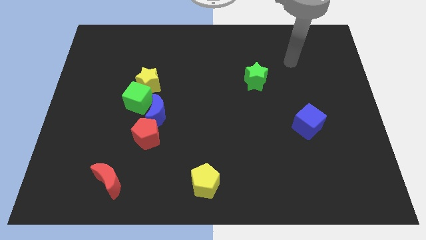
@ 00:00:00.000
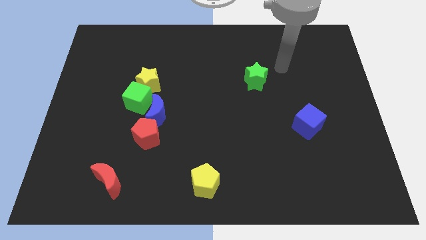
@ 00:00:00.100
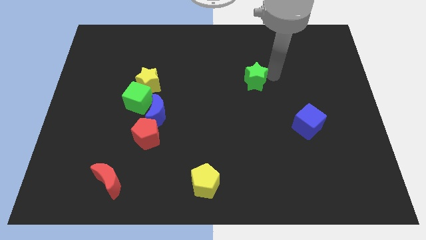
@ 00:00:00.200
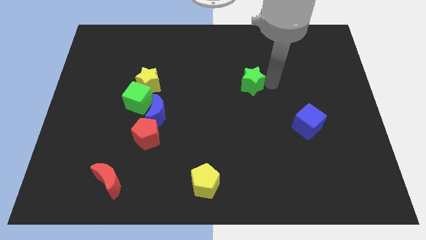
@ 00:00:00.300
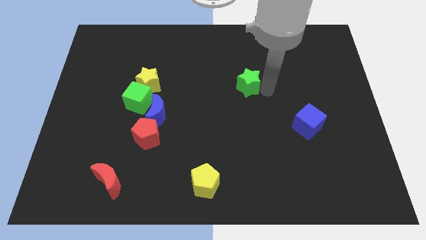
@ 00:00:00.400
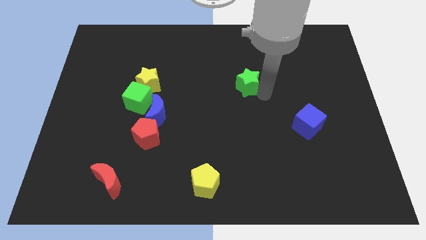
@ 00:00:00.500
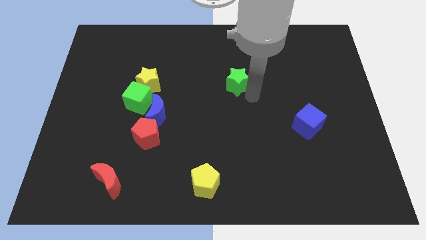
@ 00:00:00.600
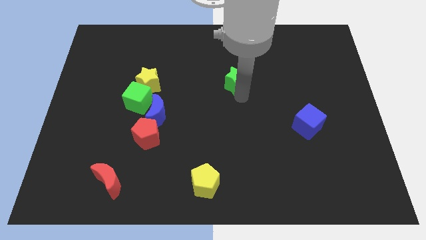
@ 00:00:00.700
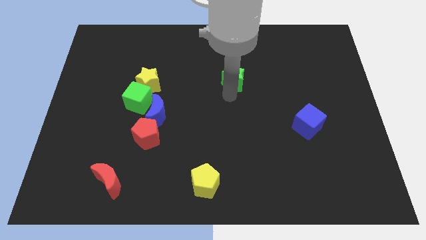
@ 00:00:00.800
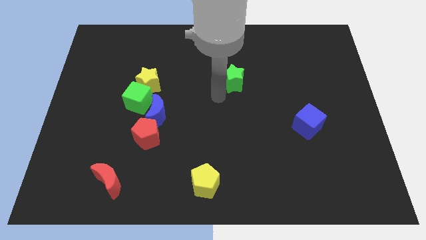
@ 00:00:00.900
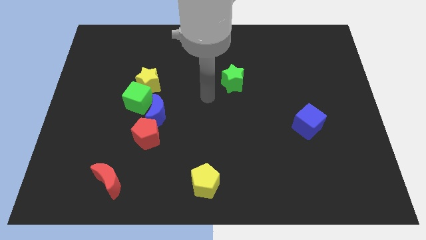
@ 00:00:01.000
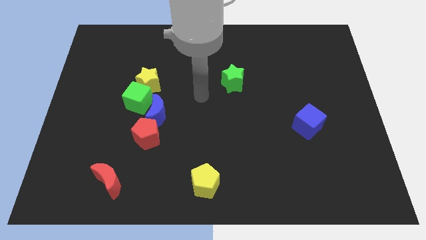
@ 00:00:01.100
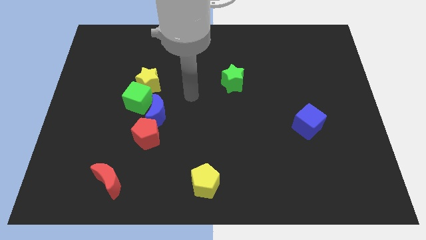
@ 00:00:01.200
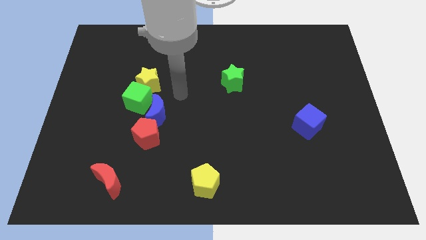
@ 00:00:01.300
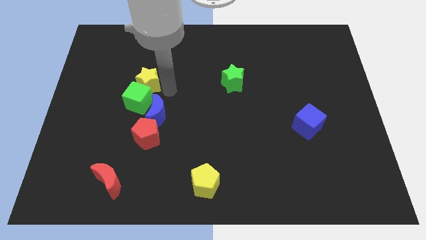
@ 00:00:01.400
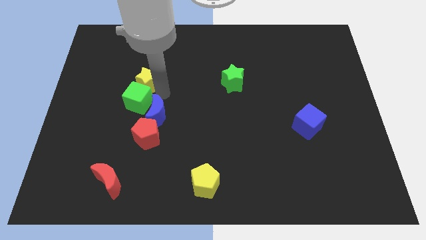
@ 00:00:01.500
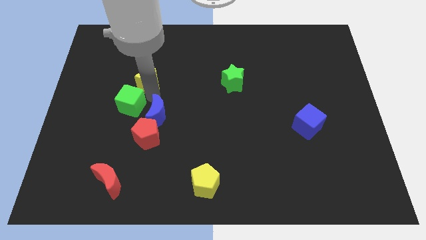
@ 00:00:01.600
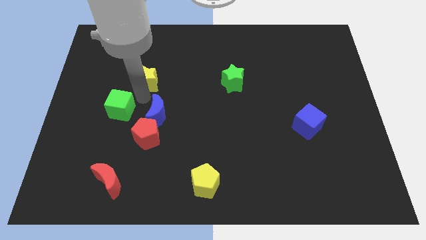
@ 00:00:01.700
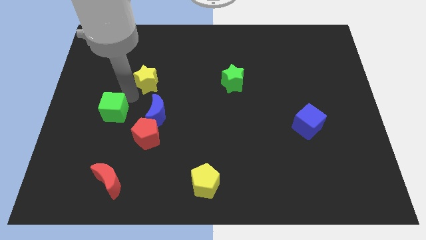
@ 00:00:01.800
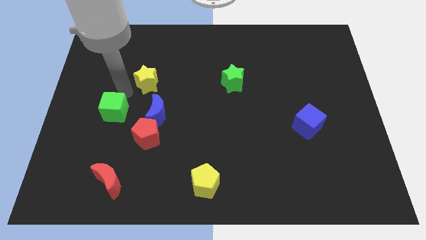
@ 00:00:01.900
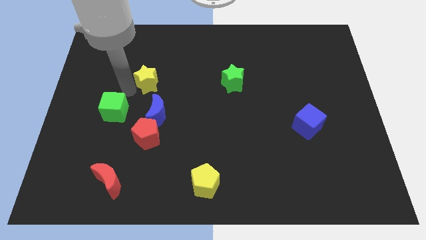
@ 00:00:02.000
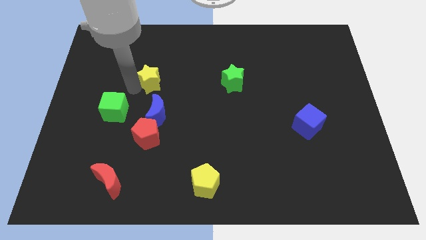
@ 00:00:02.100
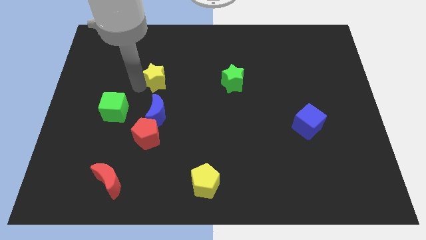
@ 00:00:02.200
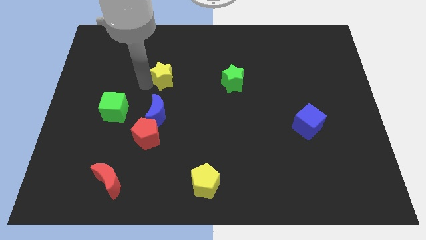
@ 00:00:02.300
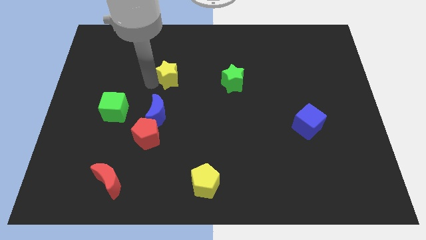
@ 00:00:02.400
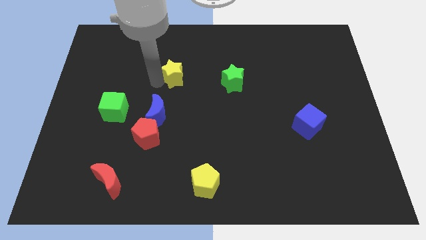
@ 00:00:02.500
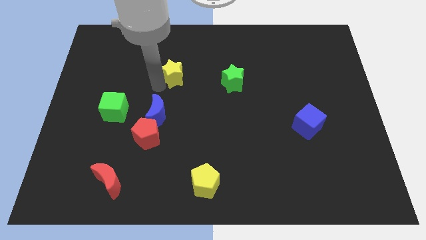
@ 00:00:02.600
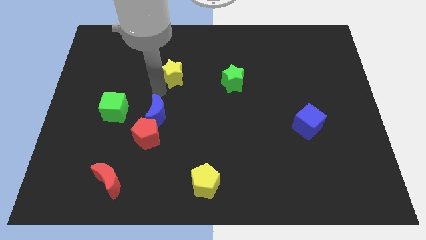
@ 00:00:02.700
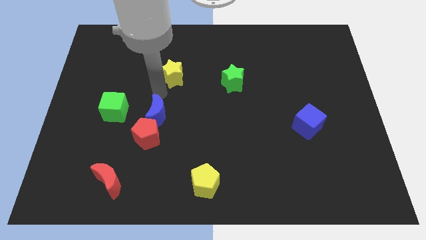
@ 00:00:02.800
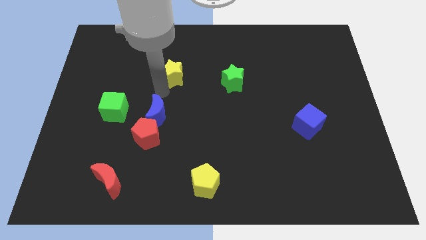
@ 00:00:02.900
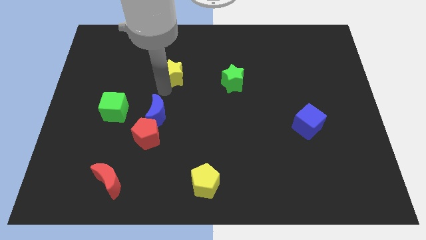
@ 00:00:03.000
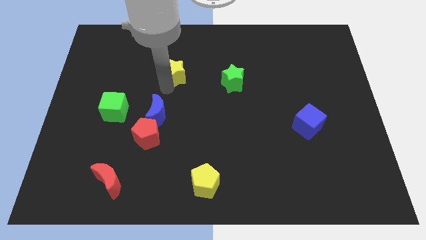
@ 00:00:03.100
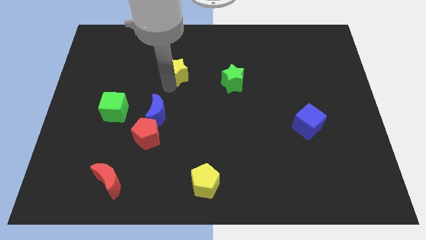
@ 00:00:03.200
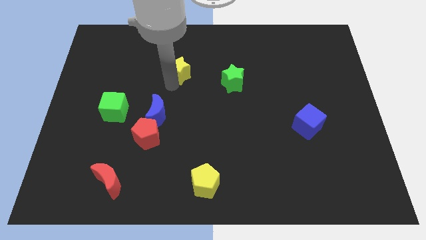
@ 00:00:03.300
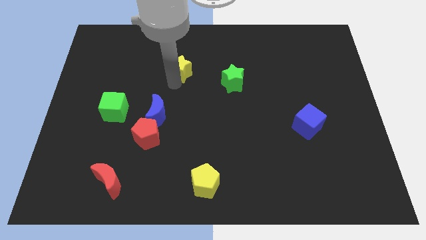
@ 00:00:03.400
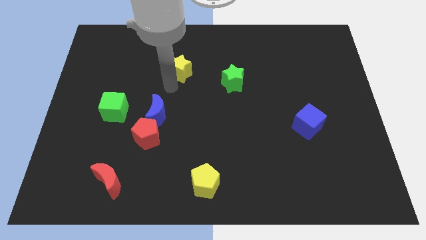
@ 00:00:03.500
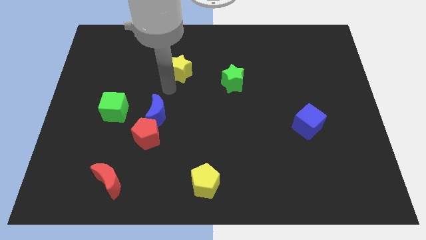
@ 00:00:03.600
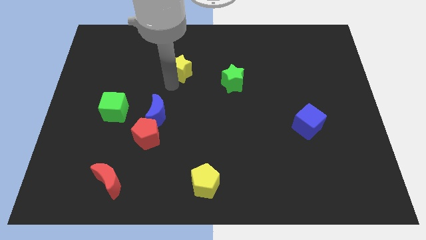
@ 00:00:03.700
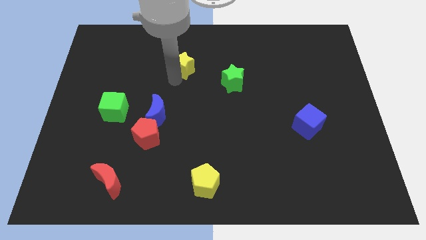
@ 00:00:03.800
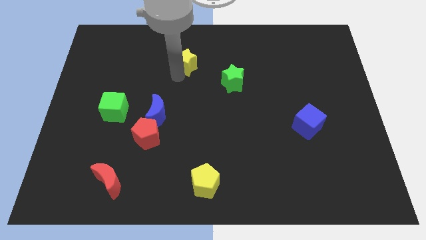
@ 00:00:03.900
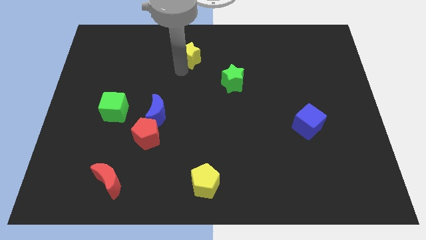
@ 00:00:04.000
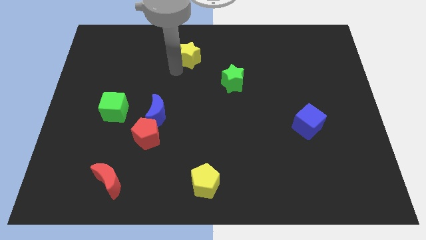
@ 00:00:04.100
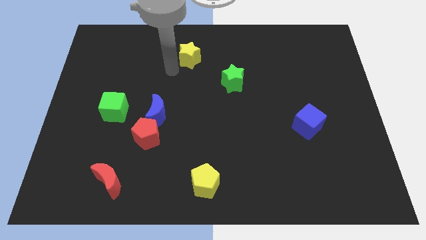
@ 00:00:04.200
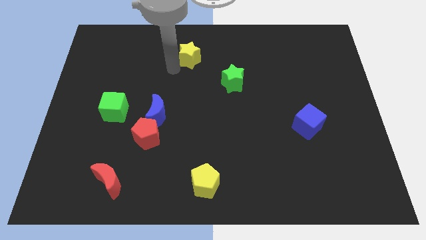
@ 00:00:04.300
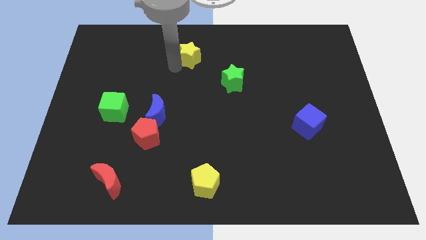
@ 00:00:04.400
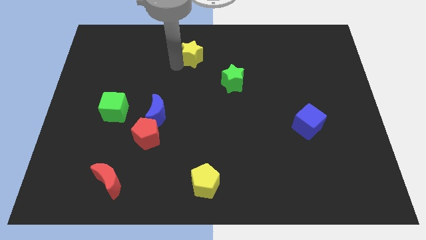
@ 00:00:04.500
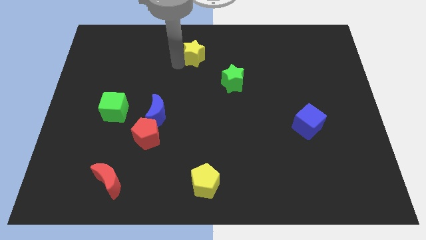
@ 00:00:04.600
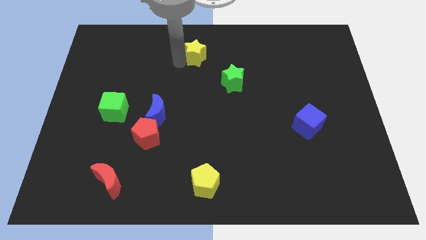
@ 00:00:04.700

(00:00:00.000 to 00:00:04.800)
put the yellow star to the top side

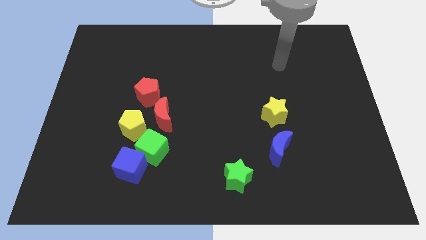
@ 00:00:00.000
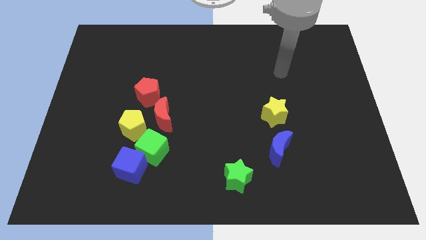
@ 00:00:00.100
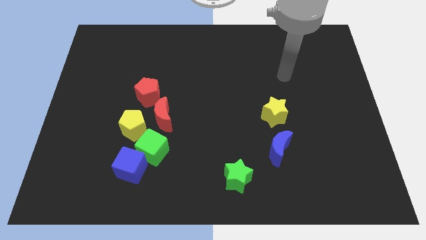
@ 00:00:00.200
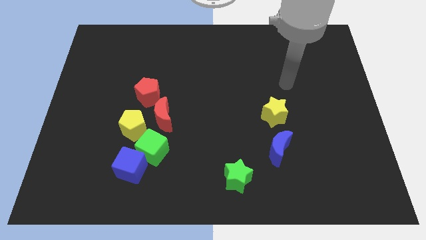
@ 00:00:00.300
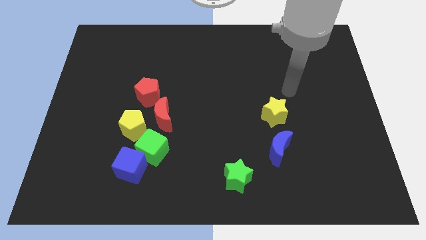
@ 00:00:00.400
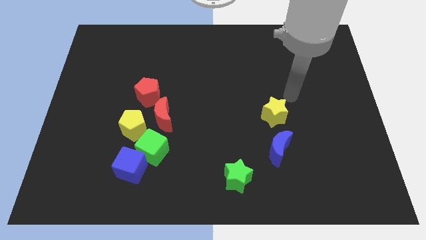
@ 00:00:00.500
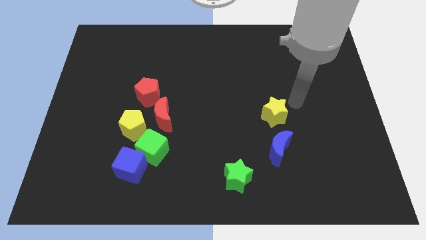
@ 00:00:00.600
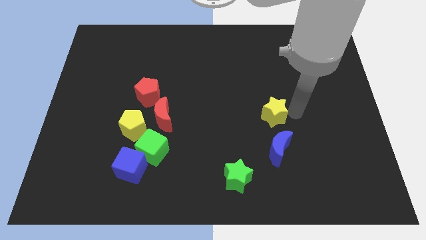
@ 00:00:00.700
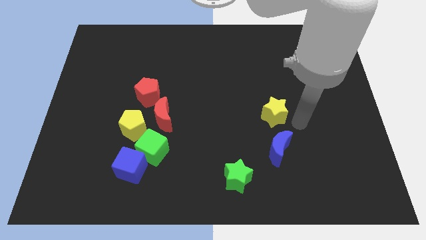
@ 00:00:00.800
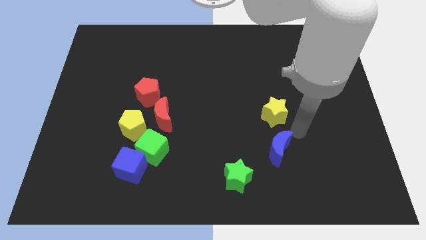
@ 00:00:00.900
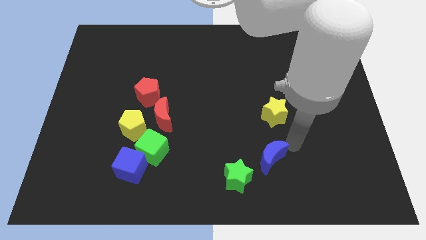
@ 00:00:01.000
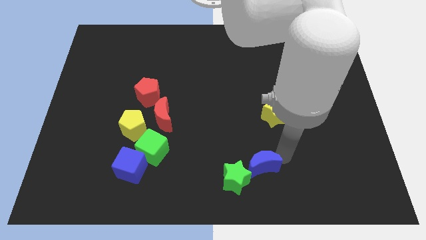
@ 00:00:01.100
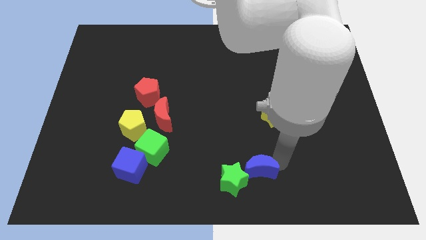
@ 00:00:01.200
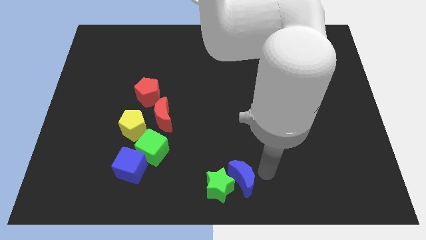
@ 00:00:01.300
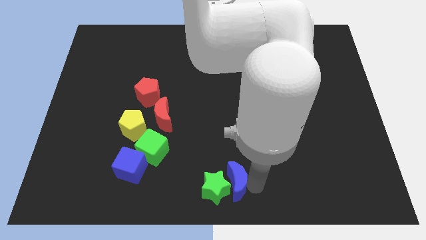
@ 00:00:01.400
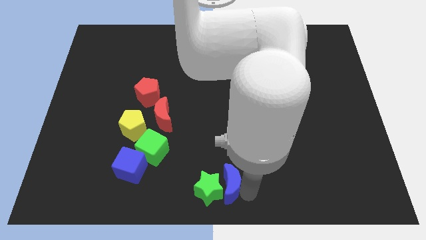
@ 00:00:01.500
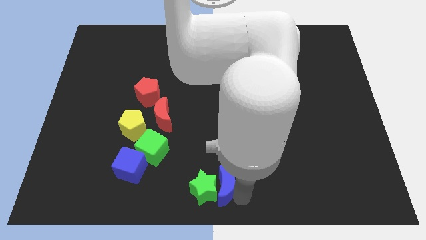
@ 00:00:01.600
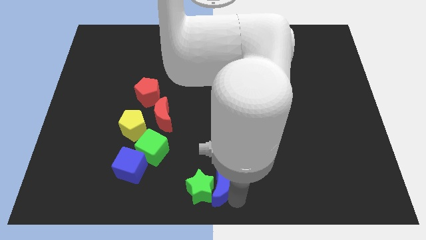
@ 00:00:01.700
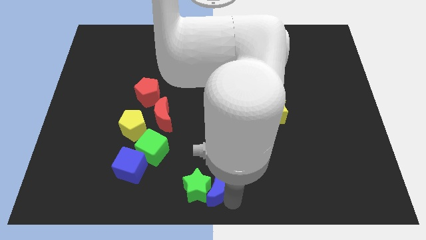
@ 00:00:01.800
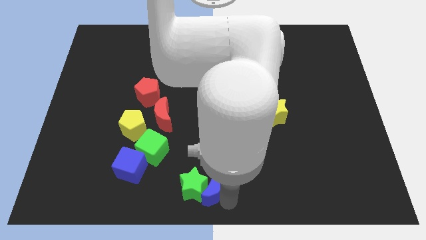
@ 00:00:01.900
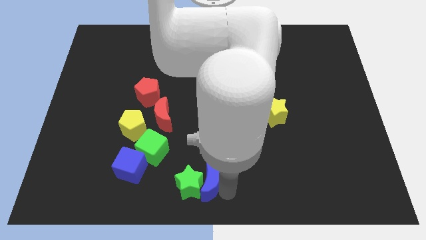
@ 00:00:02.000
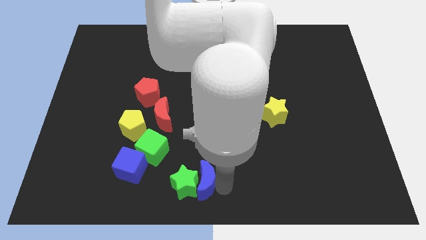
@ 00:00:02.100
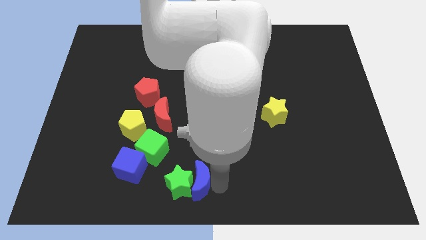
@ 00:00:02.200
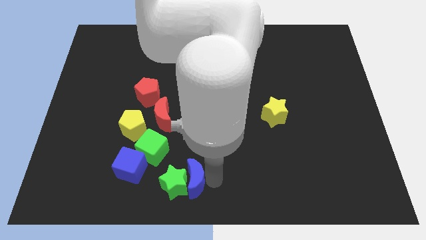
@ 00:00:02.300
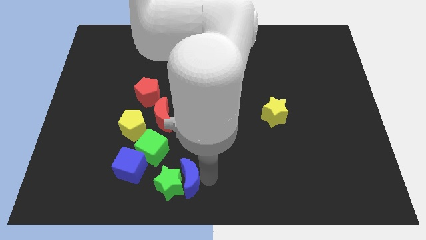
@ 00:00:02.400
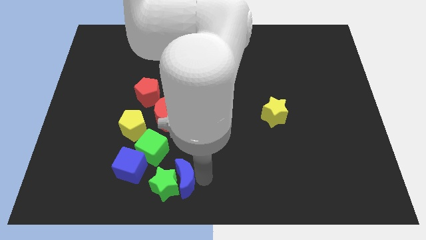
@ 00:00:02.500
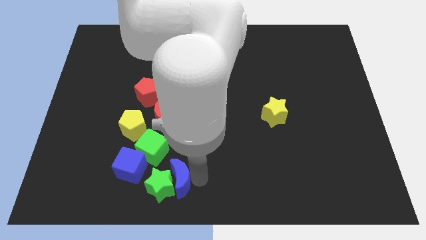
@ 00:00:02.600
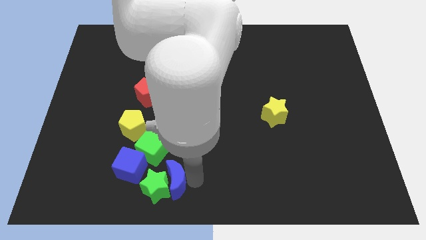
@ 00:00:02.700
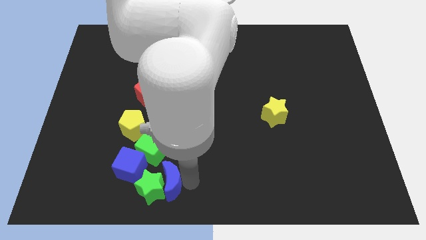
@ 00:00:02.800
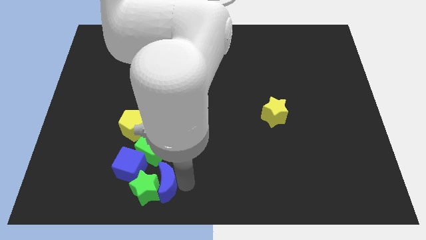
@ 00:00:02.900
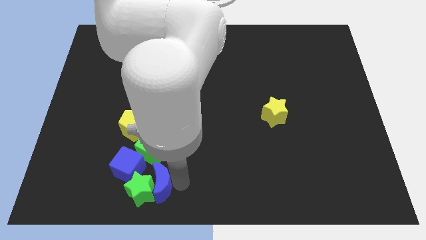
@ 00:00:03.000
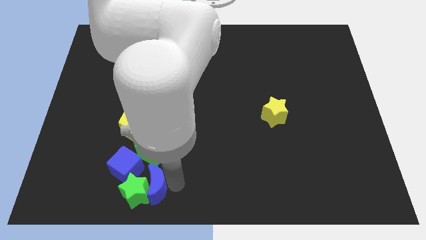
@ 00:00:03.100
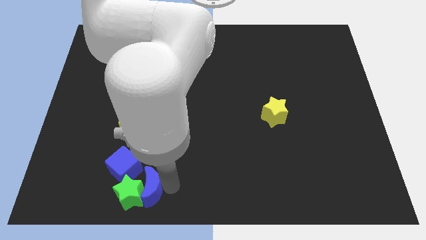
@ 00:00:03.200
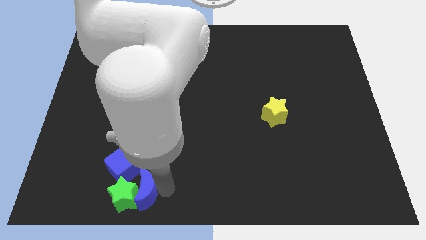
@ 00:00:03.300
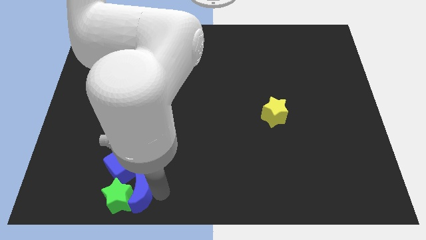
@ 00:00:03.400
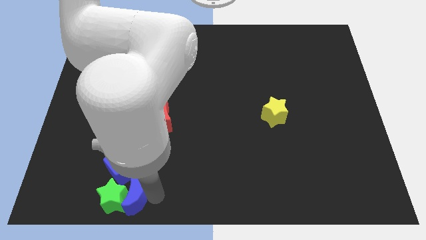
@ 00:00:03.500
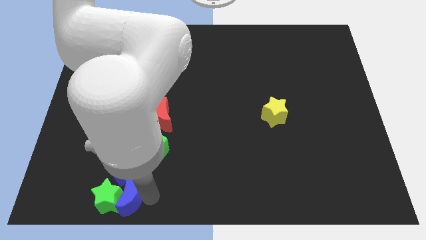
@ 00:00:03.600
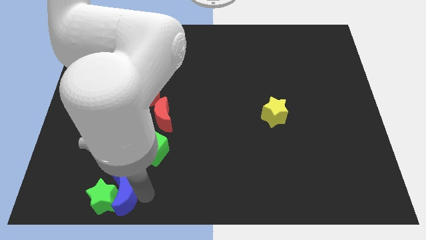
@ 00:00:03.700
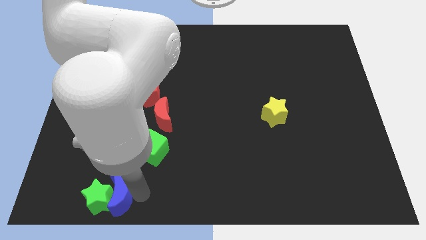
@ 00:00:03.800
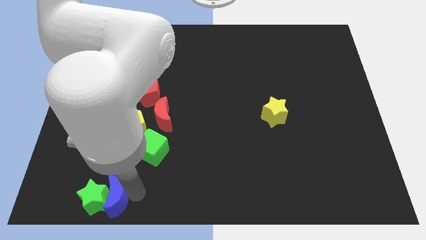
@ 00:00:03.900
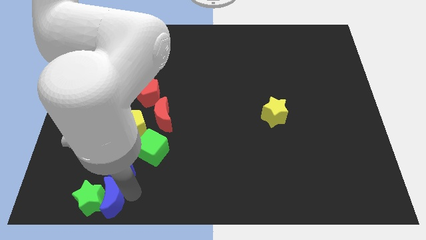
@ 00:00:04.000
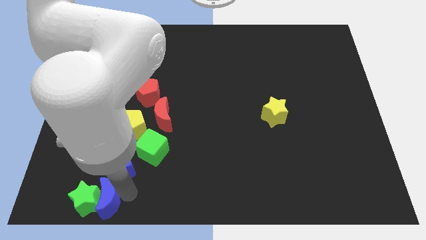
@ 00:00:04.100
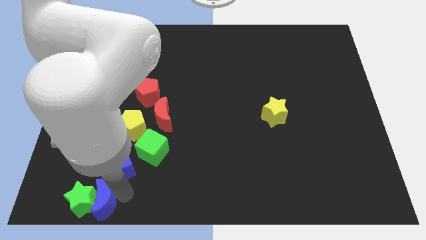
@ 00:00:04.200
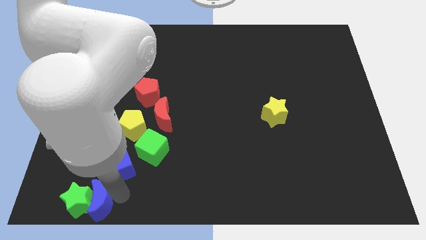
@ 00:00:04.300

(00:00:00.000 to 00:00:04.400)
push the green star to the lower left corner
